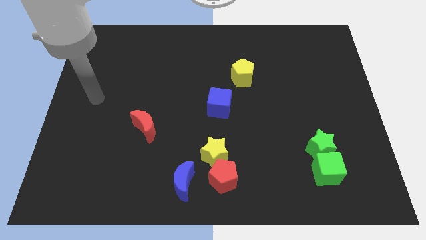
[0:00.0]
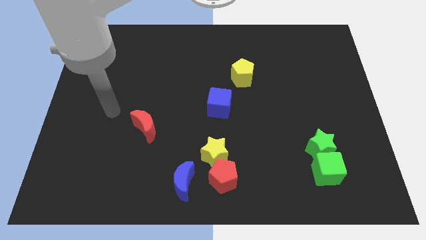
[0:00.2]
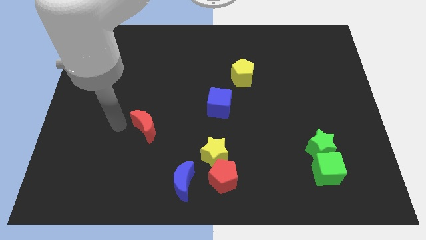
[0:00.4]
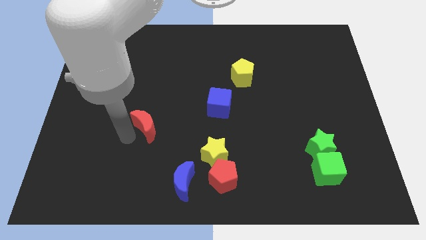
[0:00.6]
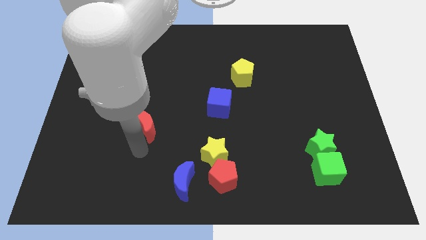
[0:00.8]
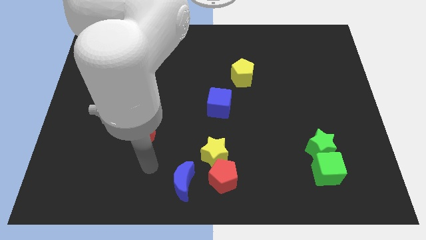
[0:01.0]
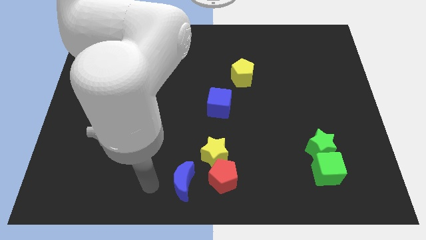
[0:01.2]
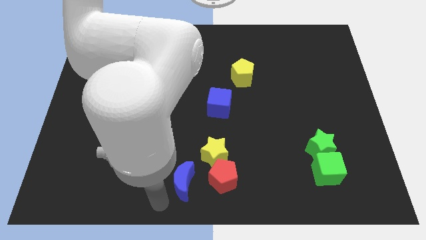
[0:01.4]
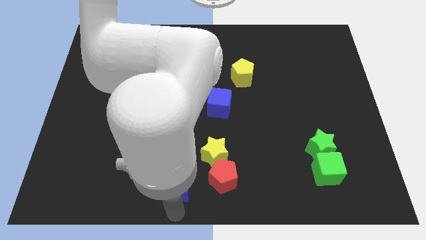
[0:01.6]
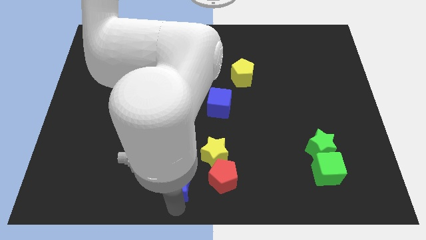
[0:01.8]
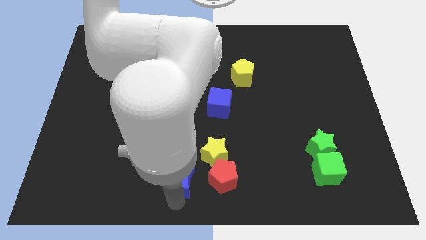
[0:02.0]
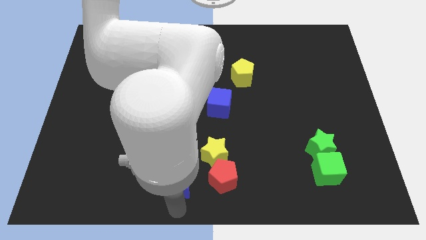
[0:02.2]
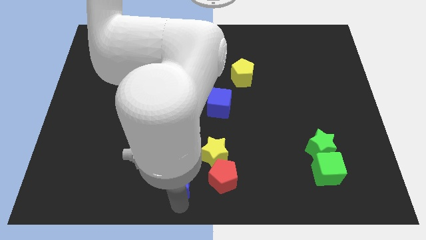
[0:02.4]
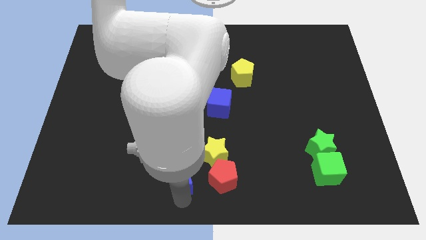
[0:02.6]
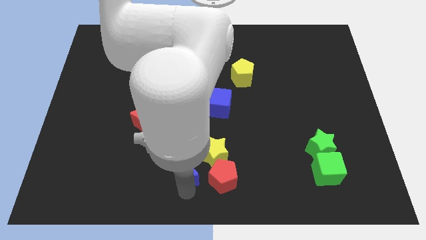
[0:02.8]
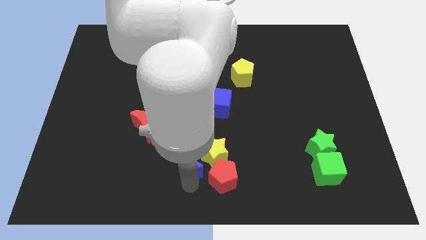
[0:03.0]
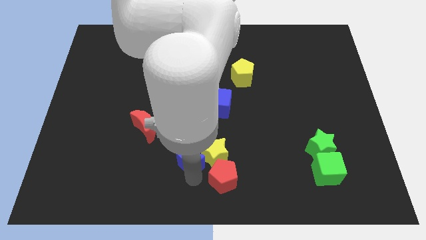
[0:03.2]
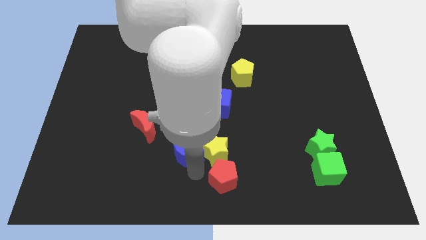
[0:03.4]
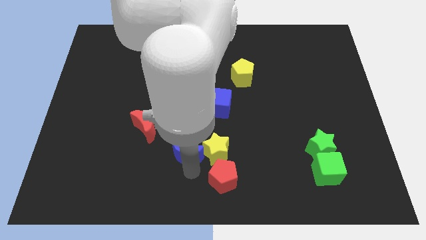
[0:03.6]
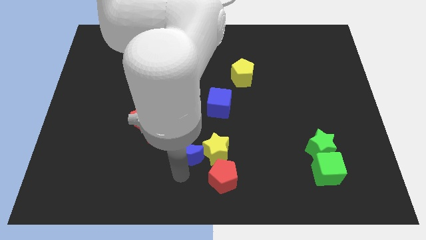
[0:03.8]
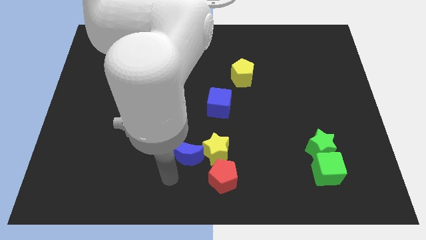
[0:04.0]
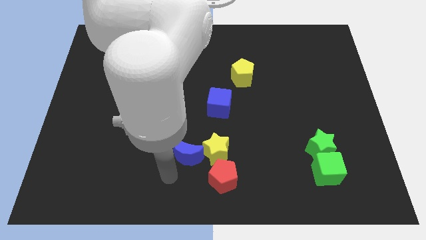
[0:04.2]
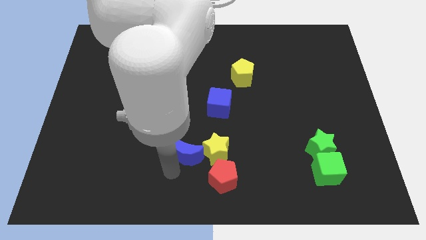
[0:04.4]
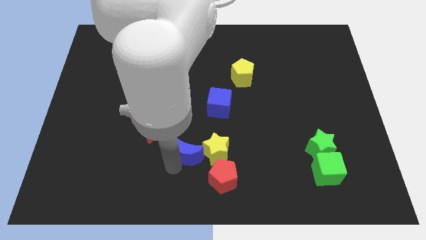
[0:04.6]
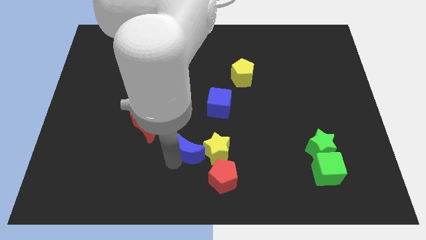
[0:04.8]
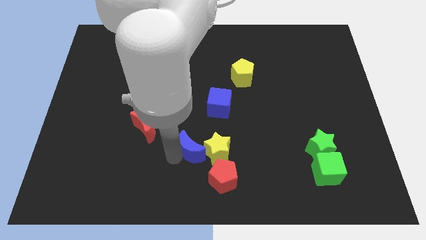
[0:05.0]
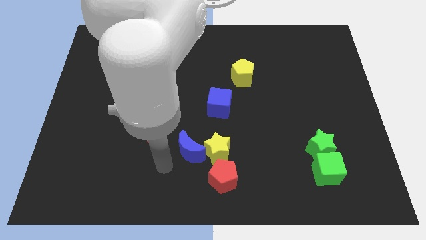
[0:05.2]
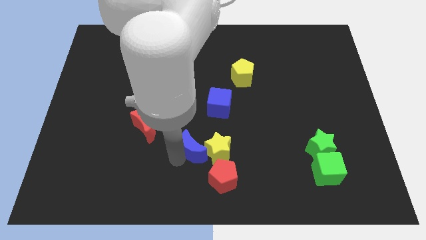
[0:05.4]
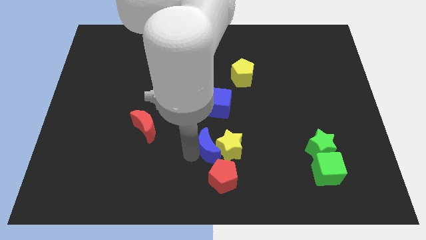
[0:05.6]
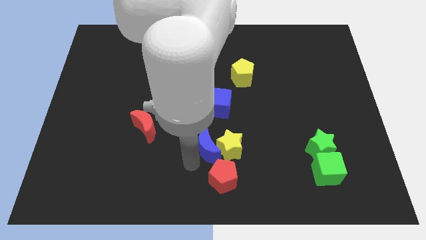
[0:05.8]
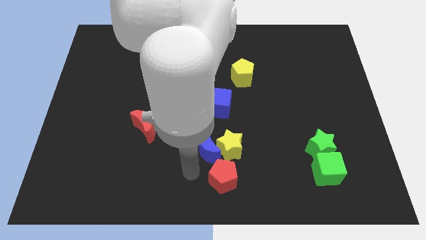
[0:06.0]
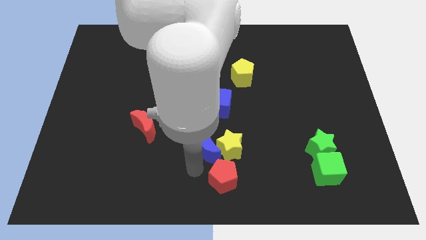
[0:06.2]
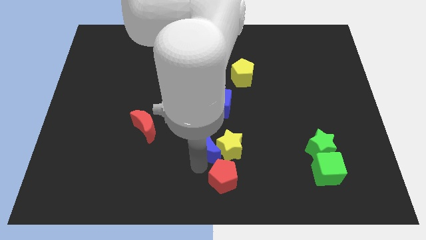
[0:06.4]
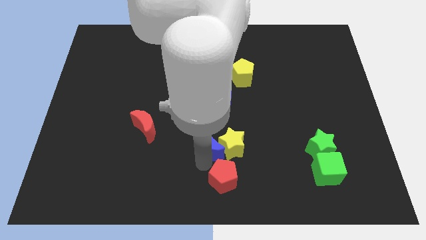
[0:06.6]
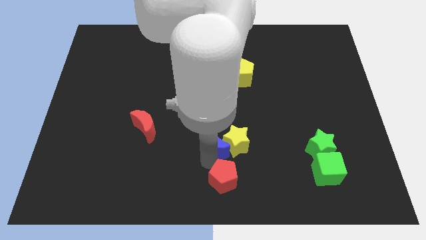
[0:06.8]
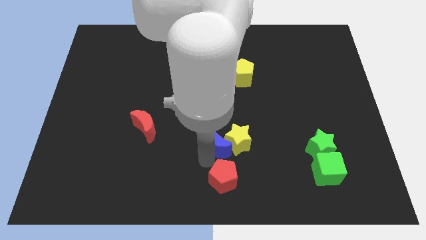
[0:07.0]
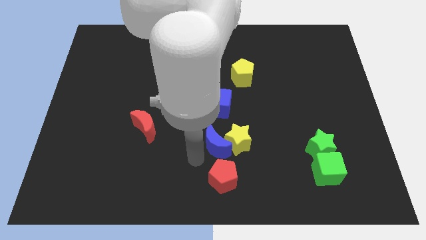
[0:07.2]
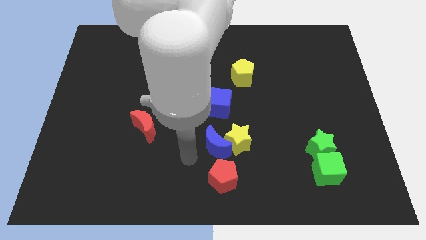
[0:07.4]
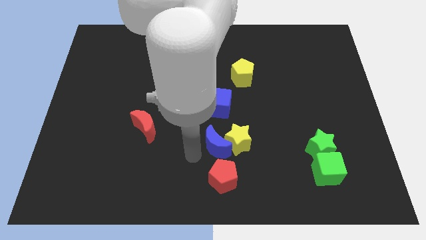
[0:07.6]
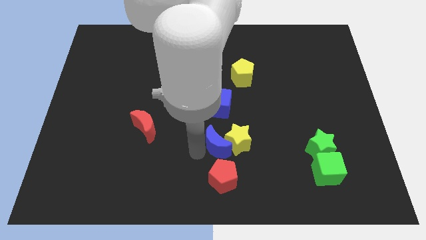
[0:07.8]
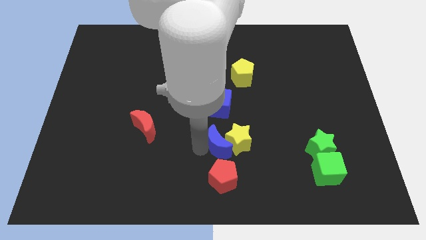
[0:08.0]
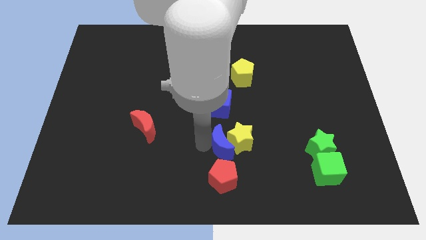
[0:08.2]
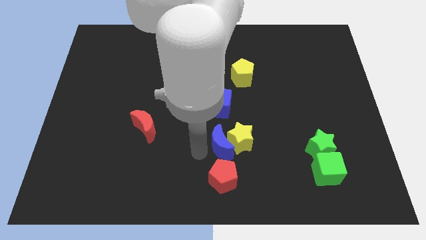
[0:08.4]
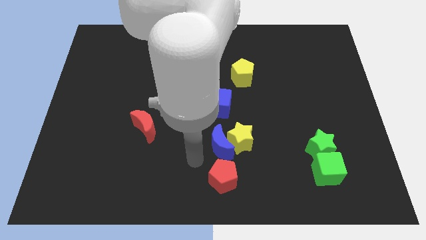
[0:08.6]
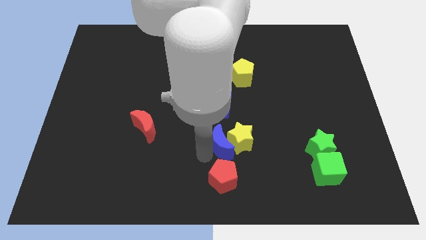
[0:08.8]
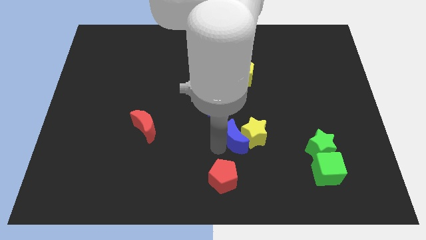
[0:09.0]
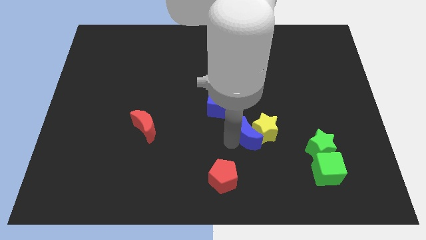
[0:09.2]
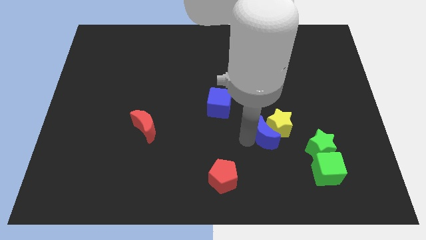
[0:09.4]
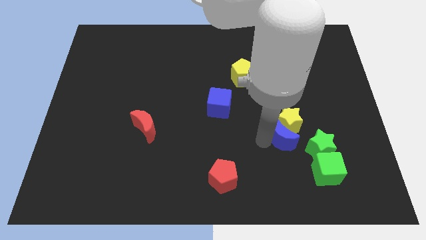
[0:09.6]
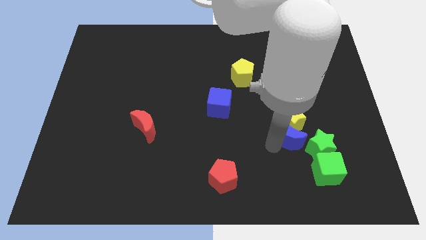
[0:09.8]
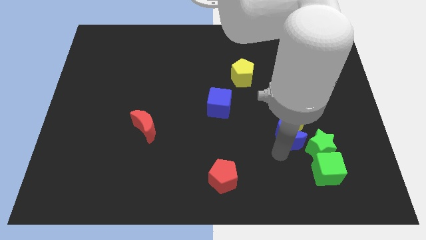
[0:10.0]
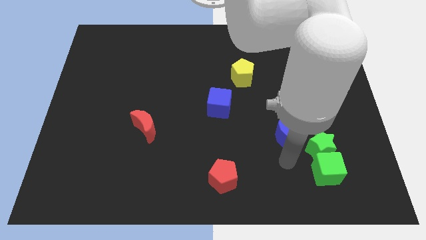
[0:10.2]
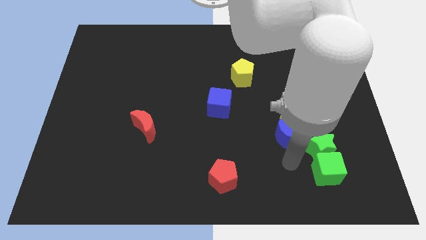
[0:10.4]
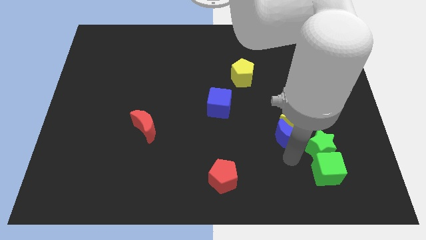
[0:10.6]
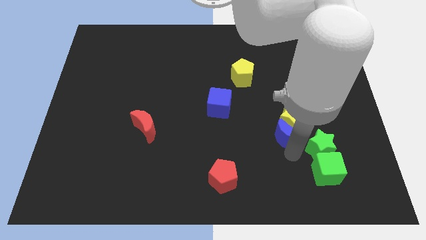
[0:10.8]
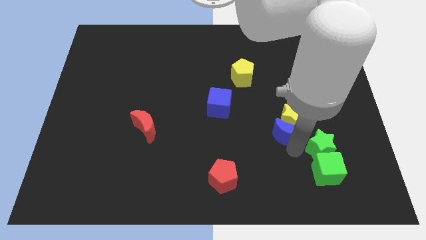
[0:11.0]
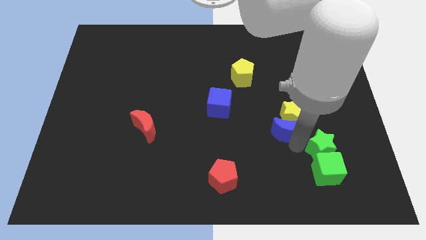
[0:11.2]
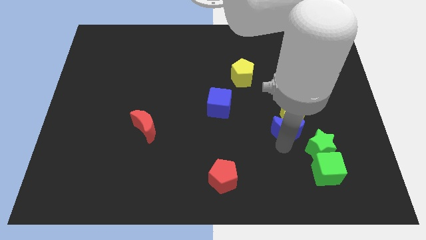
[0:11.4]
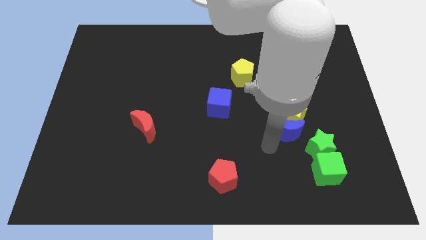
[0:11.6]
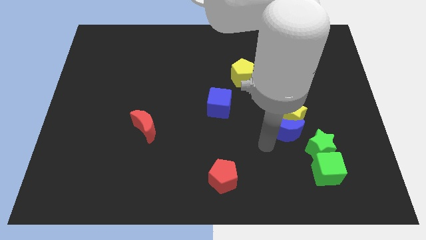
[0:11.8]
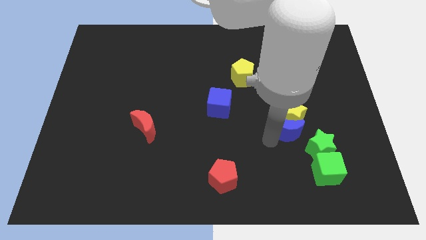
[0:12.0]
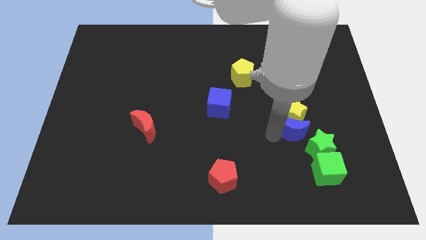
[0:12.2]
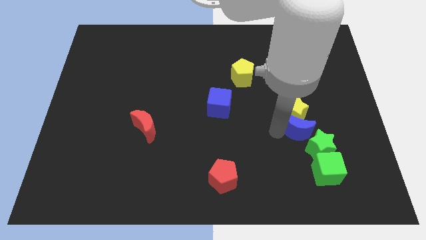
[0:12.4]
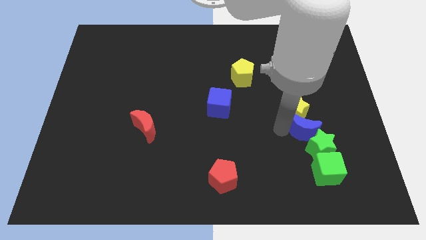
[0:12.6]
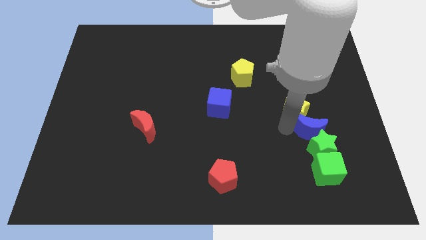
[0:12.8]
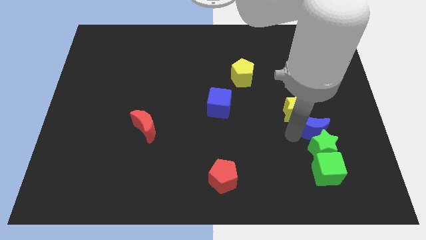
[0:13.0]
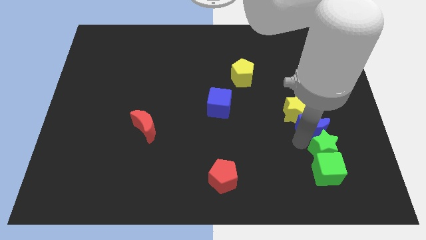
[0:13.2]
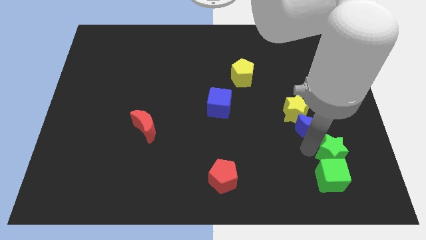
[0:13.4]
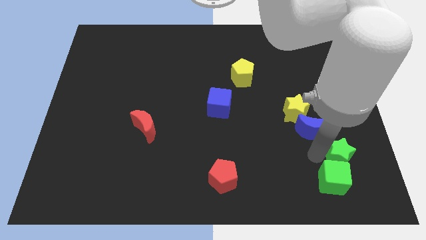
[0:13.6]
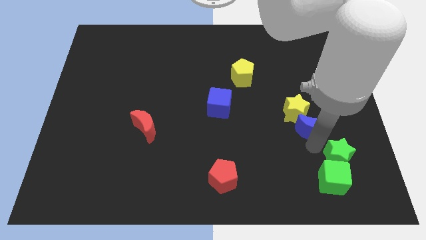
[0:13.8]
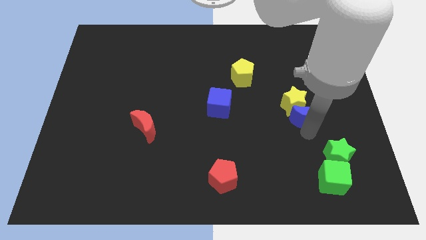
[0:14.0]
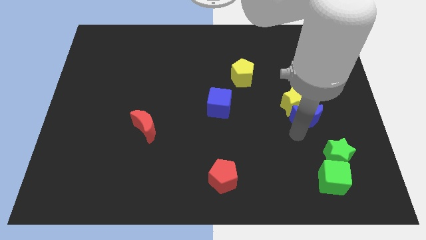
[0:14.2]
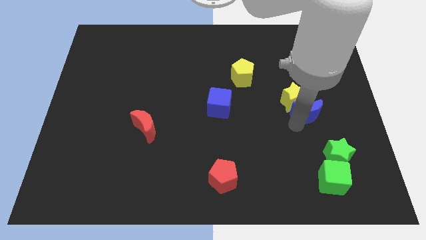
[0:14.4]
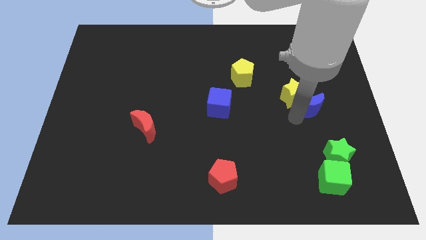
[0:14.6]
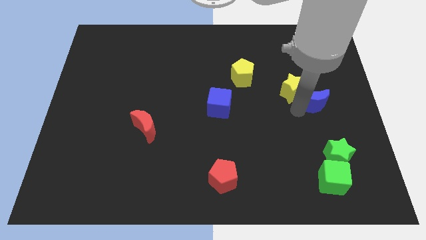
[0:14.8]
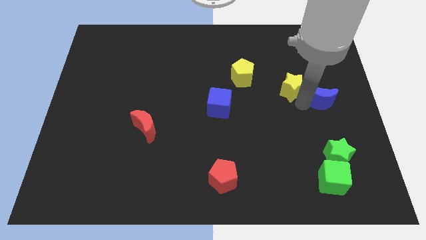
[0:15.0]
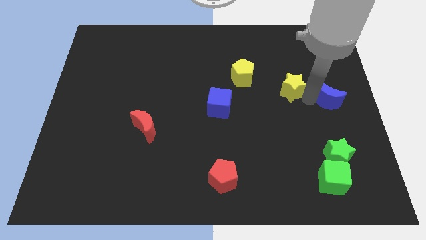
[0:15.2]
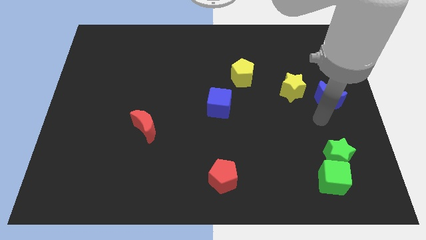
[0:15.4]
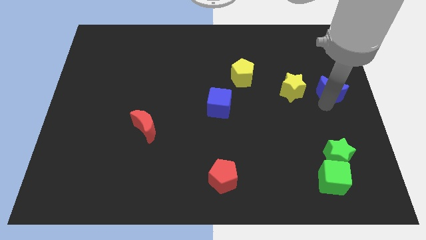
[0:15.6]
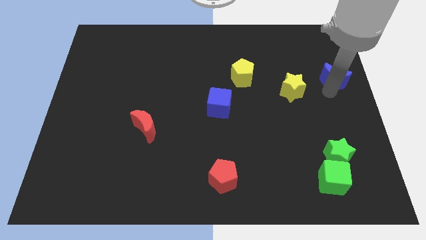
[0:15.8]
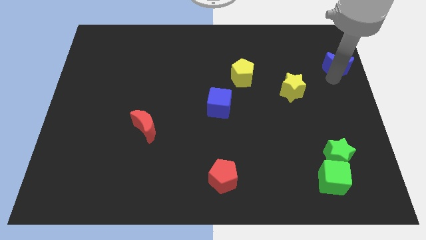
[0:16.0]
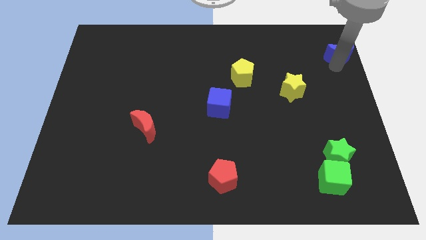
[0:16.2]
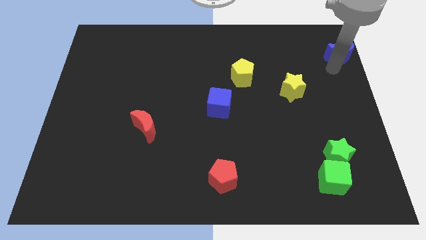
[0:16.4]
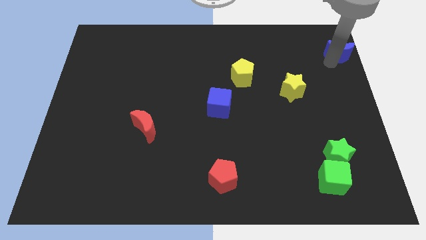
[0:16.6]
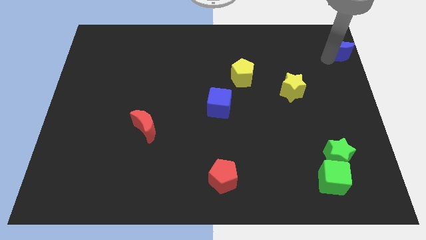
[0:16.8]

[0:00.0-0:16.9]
slide the blue moon to the top right corner
